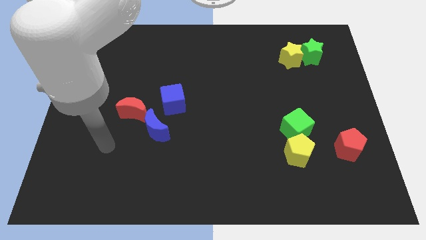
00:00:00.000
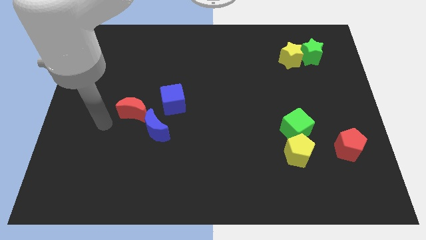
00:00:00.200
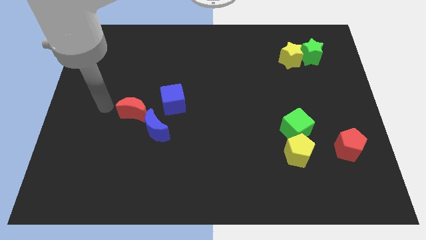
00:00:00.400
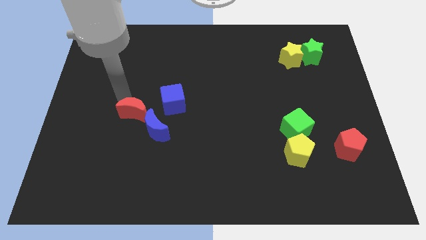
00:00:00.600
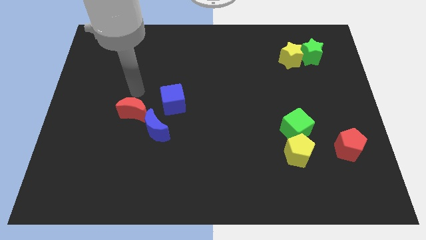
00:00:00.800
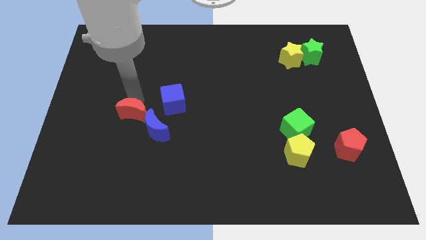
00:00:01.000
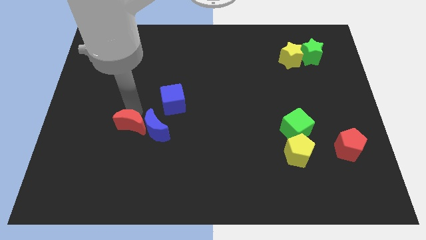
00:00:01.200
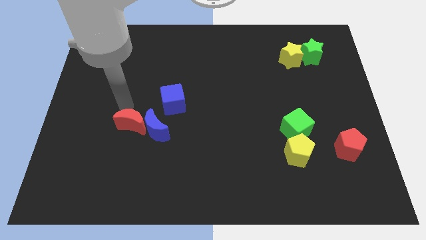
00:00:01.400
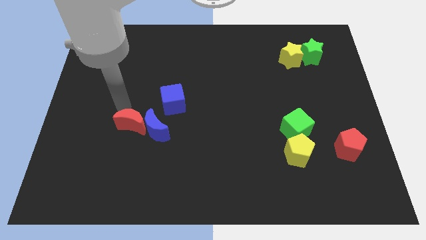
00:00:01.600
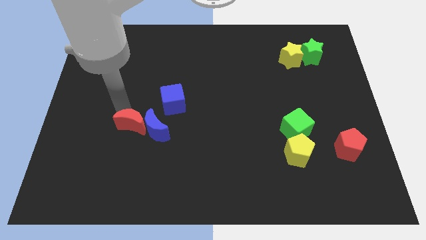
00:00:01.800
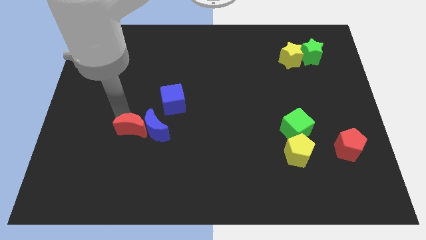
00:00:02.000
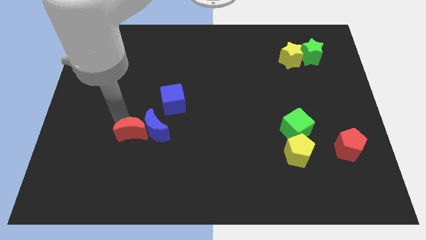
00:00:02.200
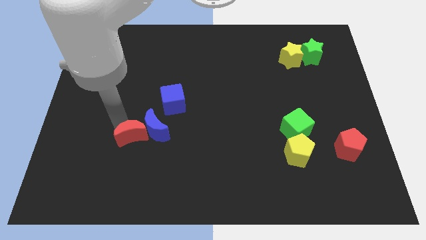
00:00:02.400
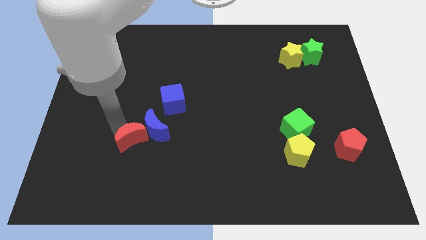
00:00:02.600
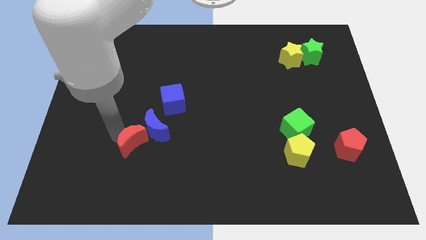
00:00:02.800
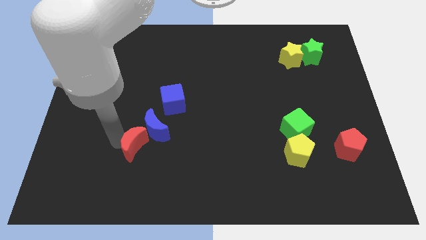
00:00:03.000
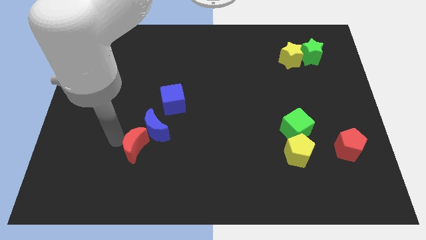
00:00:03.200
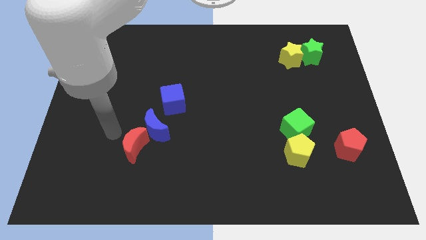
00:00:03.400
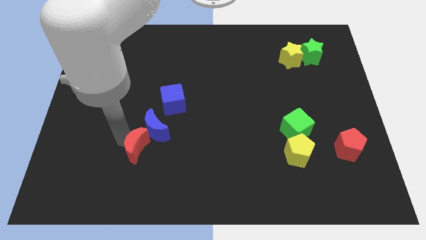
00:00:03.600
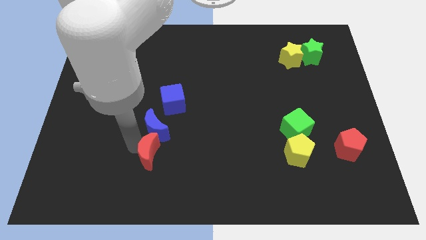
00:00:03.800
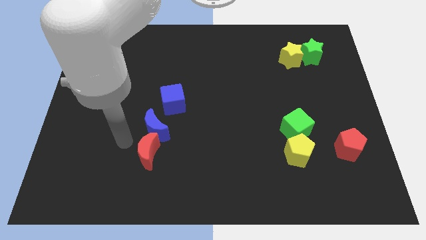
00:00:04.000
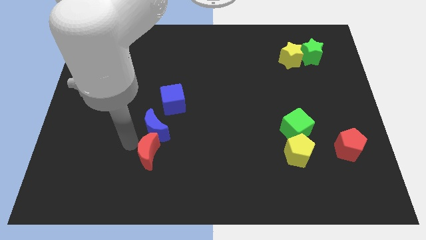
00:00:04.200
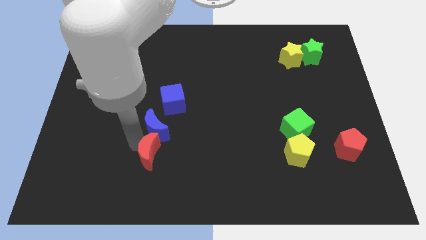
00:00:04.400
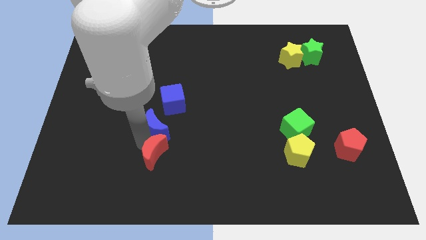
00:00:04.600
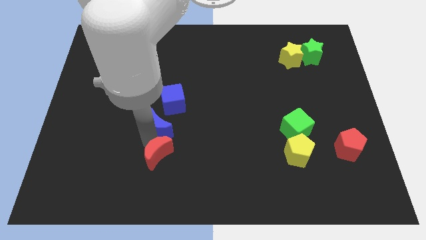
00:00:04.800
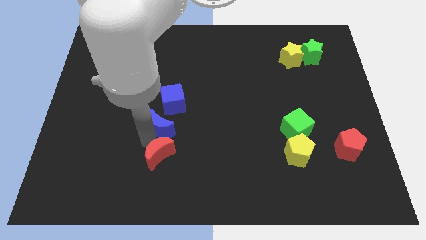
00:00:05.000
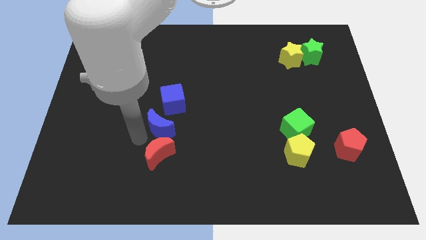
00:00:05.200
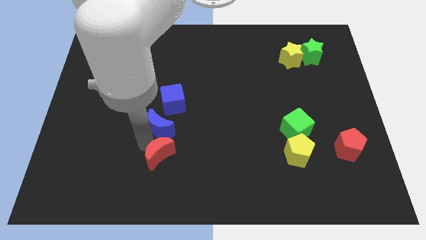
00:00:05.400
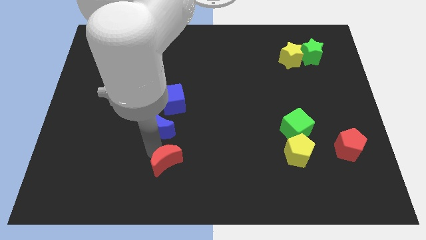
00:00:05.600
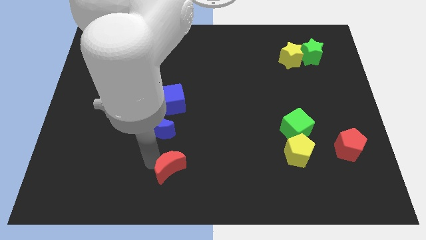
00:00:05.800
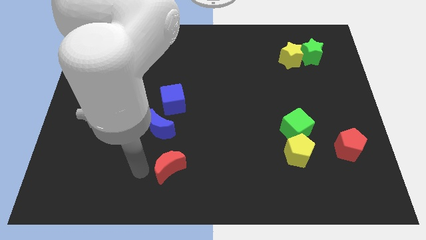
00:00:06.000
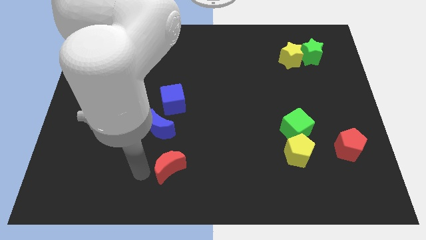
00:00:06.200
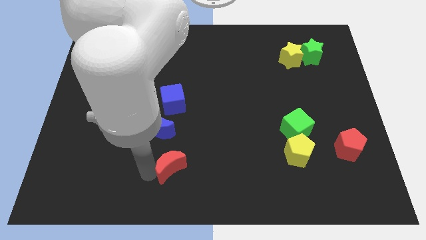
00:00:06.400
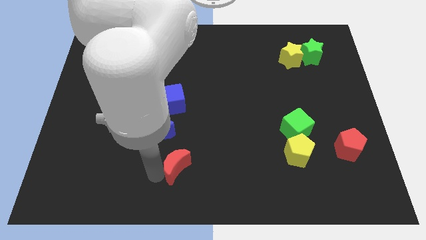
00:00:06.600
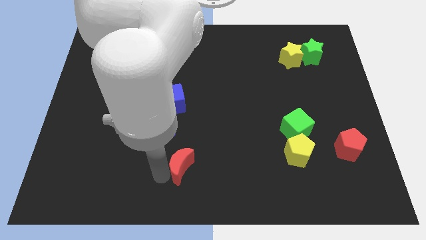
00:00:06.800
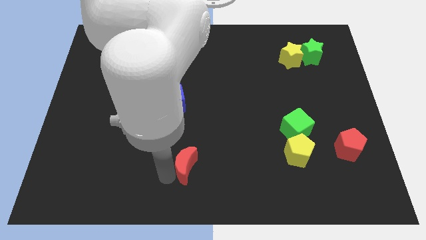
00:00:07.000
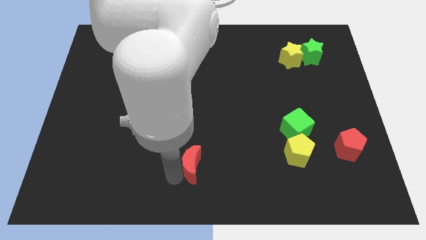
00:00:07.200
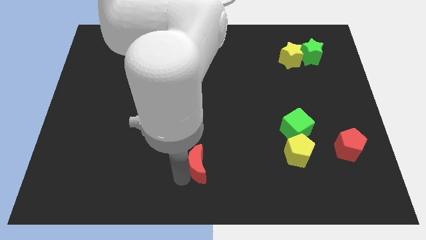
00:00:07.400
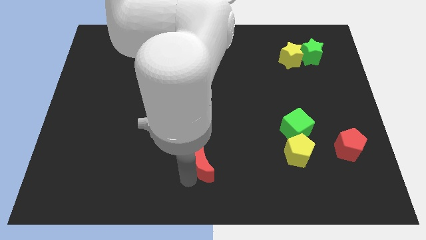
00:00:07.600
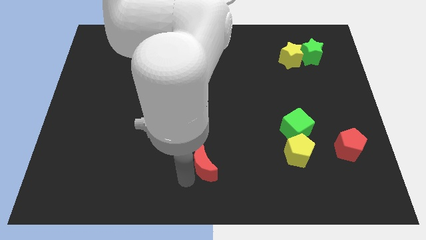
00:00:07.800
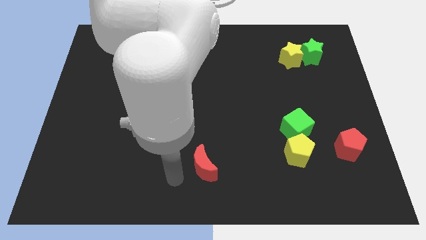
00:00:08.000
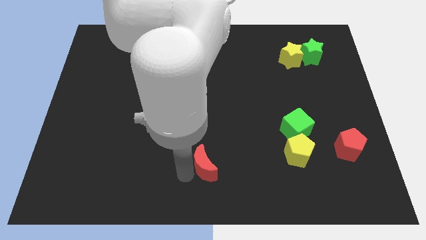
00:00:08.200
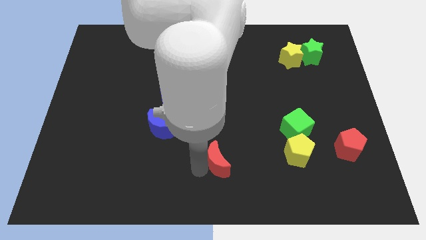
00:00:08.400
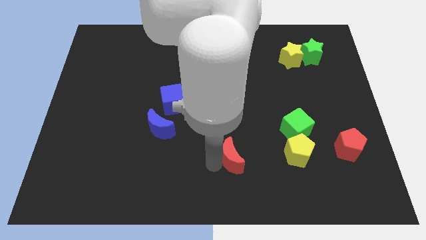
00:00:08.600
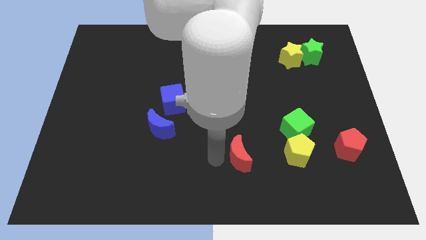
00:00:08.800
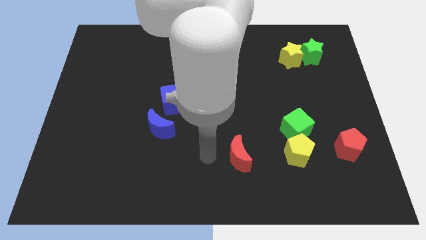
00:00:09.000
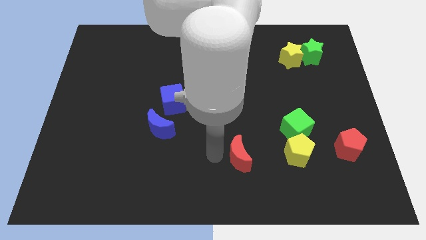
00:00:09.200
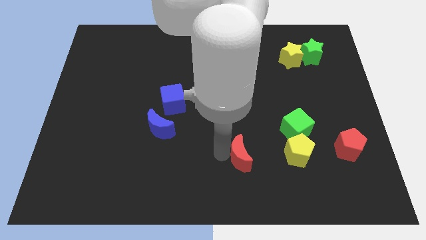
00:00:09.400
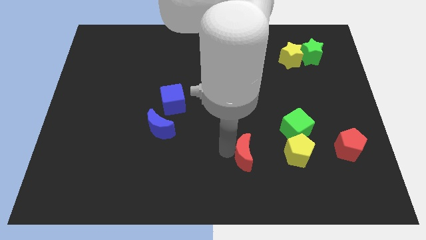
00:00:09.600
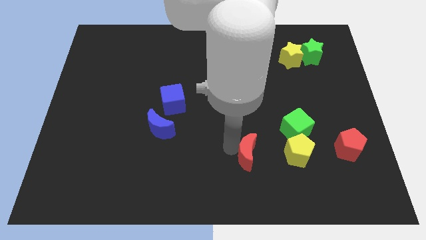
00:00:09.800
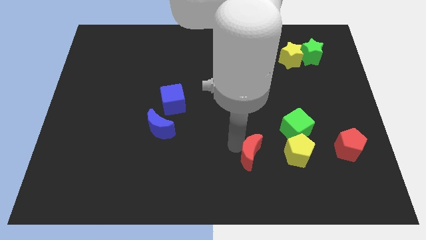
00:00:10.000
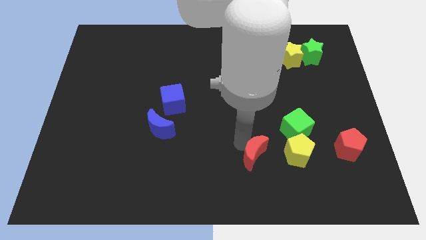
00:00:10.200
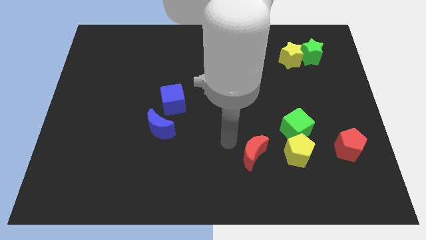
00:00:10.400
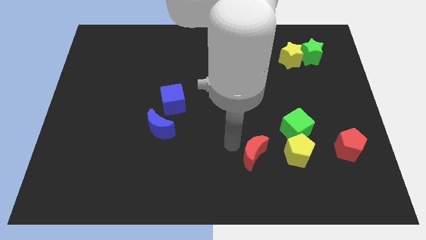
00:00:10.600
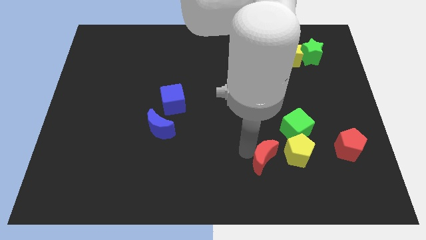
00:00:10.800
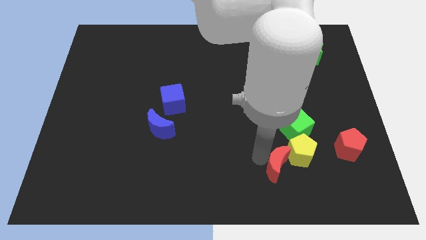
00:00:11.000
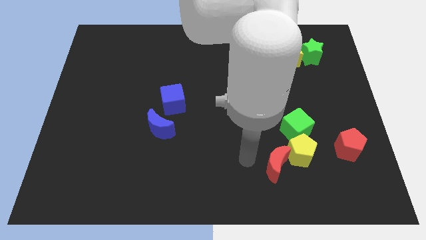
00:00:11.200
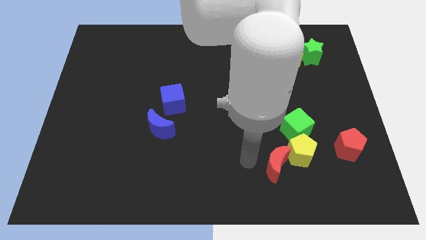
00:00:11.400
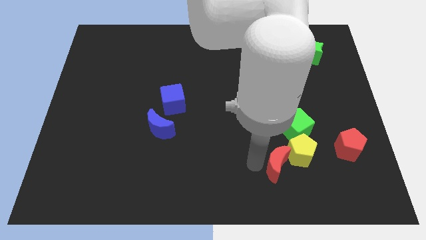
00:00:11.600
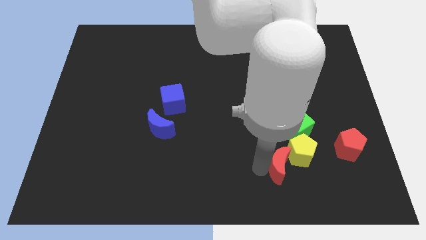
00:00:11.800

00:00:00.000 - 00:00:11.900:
slide the red moon to the bottom of the green cube
